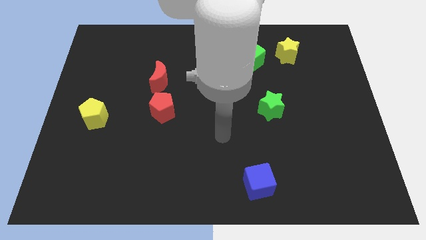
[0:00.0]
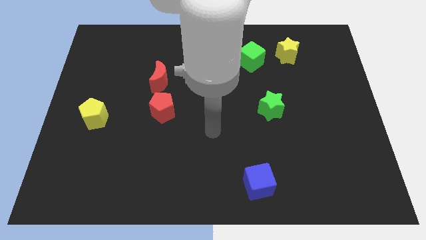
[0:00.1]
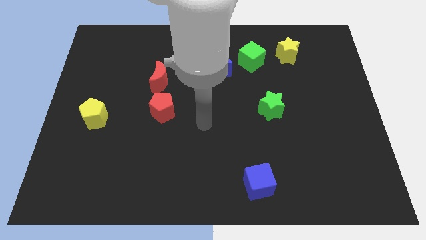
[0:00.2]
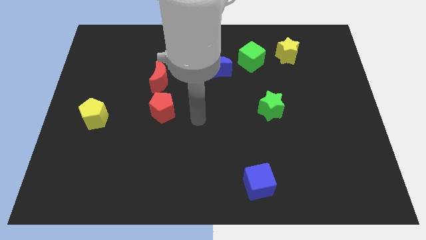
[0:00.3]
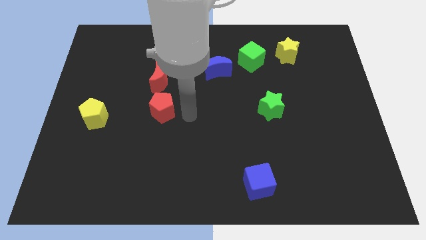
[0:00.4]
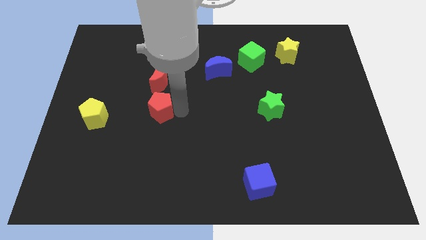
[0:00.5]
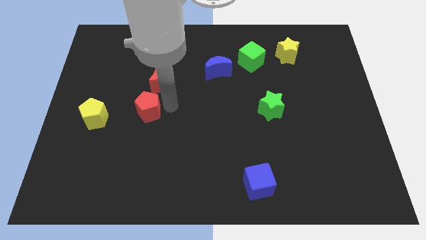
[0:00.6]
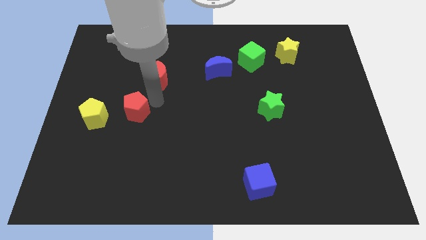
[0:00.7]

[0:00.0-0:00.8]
separate the red moon from the red pentagon

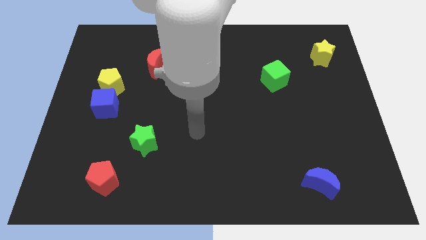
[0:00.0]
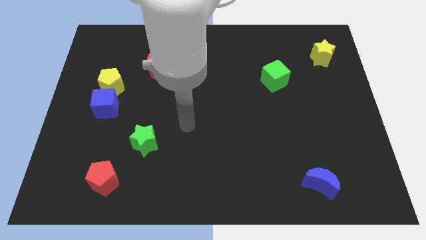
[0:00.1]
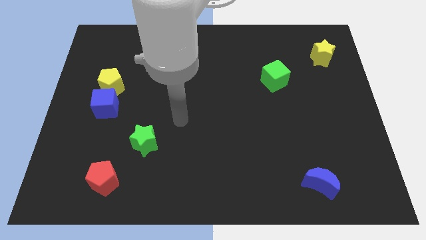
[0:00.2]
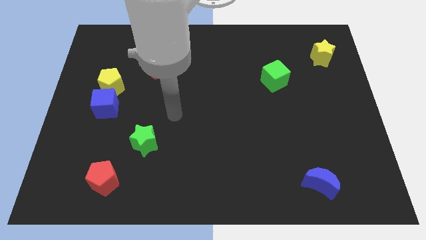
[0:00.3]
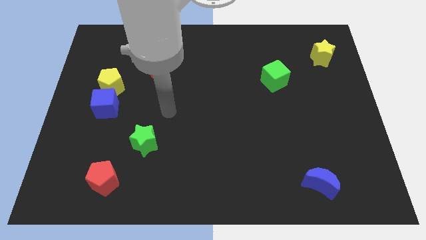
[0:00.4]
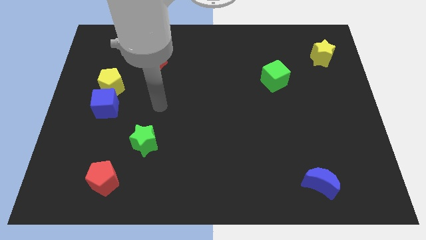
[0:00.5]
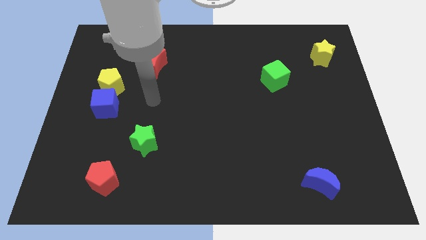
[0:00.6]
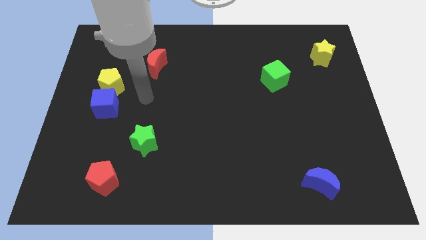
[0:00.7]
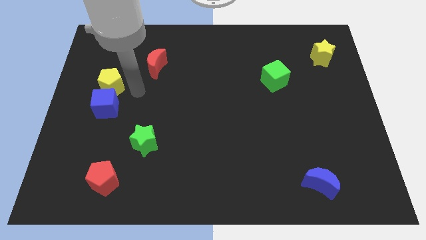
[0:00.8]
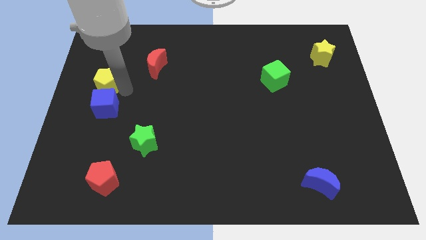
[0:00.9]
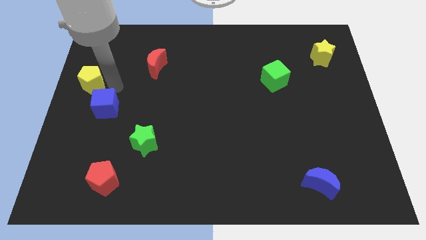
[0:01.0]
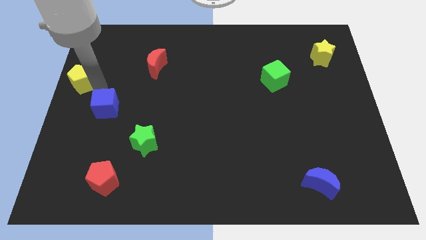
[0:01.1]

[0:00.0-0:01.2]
move the blue cube away from the yellow pentagon

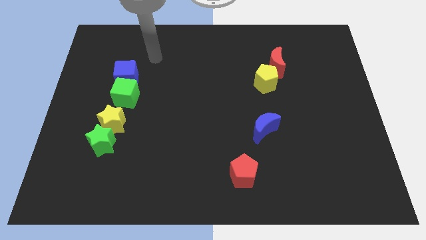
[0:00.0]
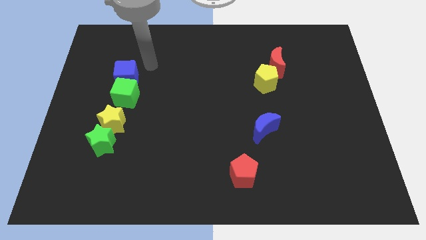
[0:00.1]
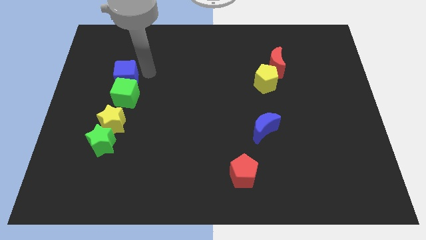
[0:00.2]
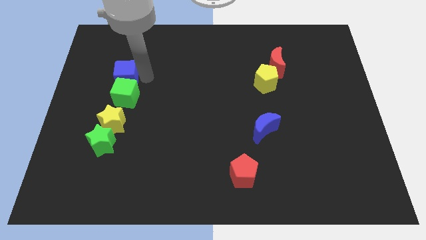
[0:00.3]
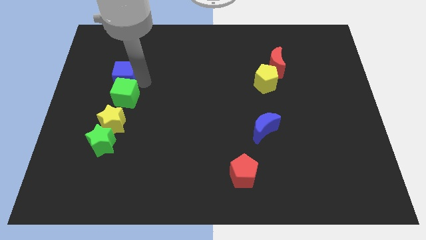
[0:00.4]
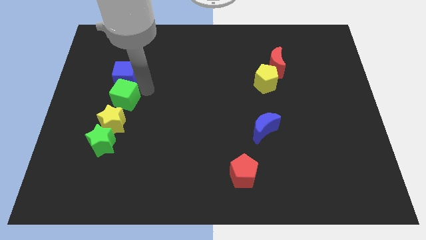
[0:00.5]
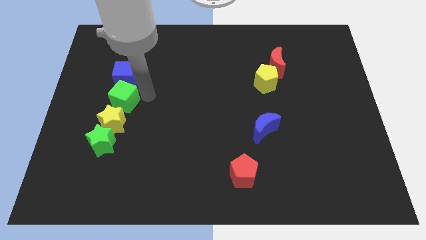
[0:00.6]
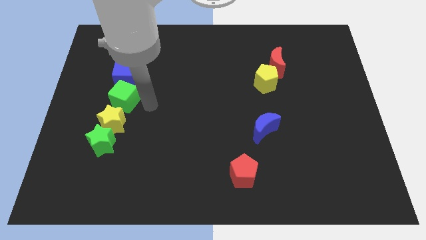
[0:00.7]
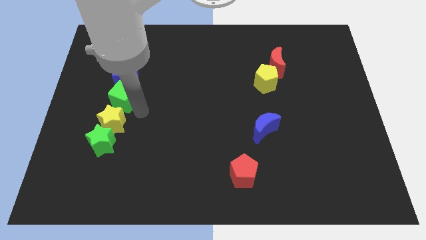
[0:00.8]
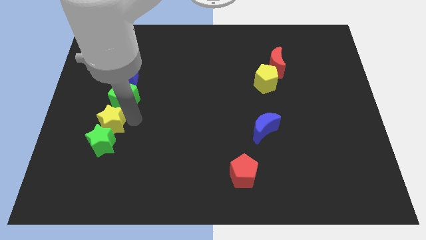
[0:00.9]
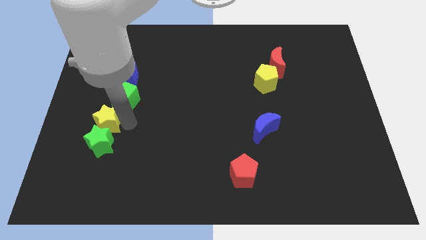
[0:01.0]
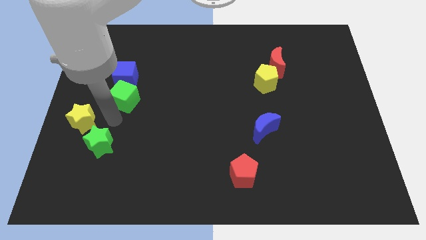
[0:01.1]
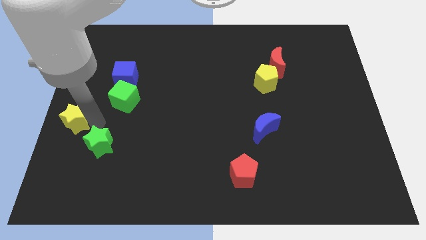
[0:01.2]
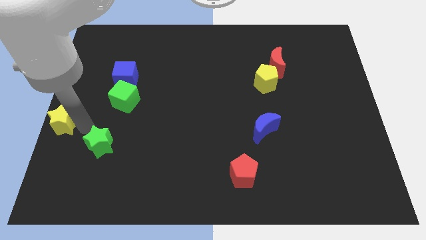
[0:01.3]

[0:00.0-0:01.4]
separate the green star from the yellow star

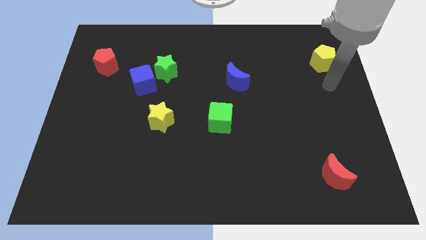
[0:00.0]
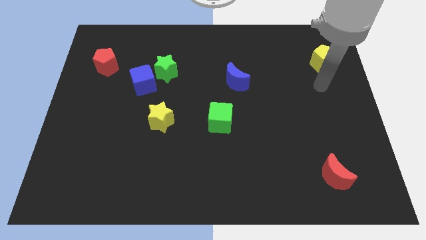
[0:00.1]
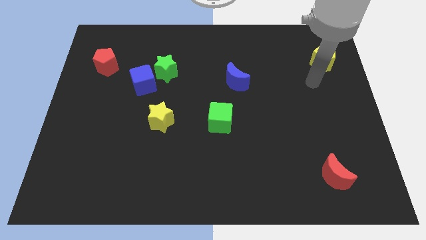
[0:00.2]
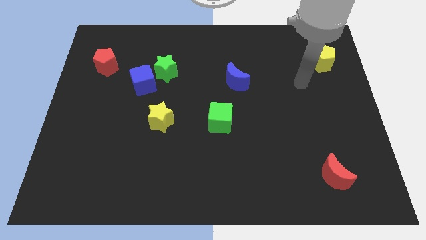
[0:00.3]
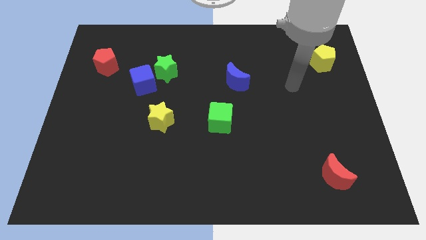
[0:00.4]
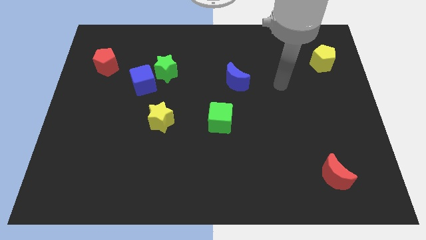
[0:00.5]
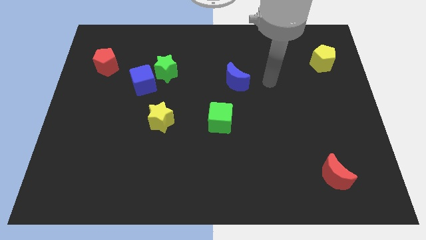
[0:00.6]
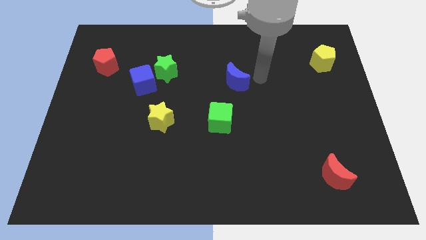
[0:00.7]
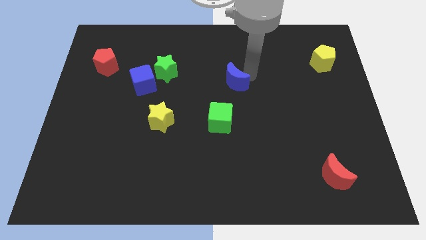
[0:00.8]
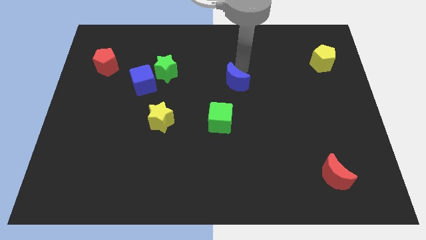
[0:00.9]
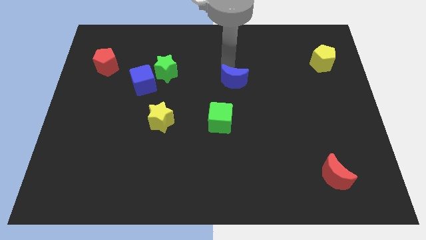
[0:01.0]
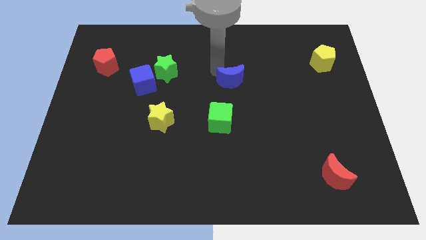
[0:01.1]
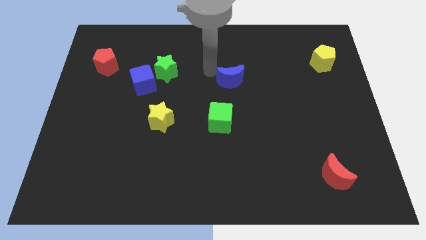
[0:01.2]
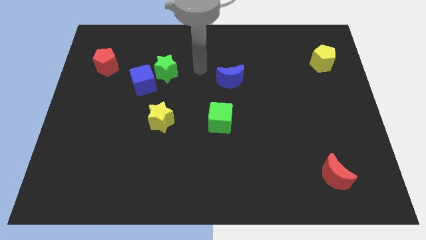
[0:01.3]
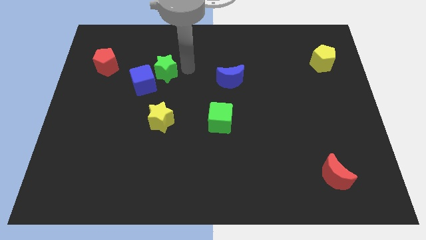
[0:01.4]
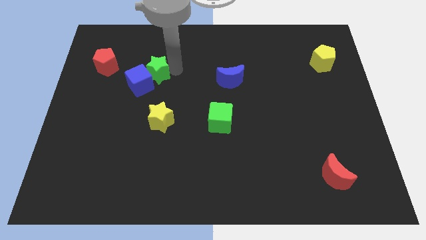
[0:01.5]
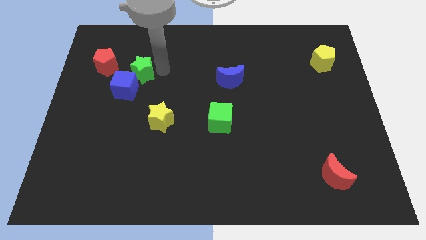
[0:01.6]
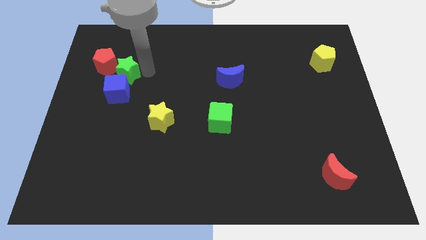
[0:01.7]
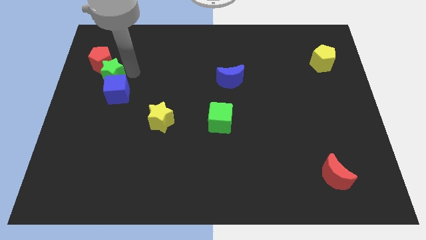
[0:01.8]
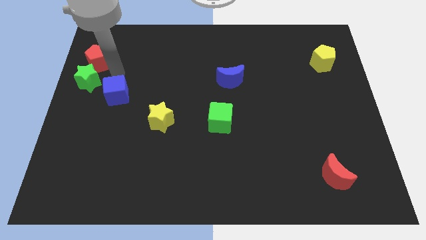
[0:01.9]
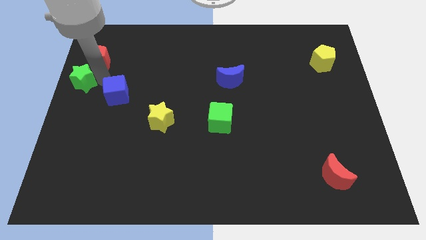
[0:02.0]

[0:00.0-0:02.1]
separate the blue cube from the green star

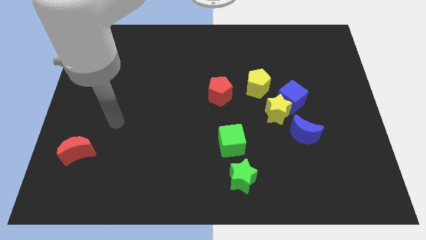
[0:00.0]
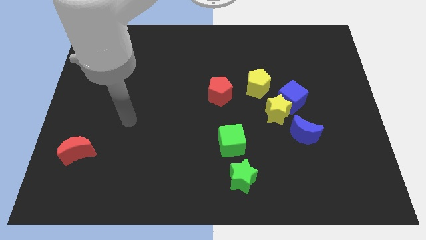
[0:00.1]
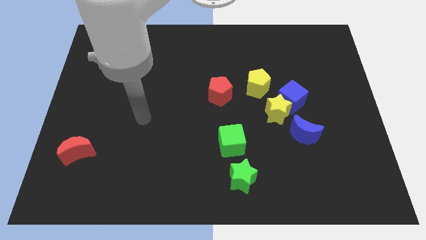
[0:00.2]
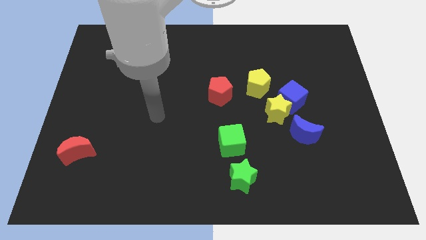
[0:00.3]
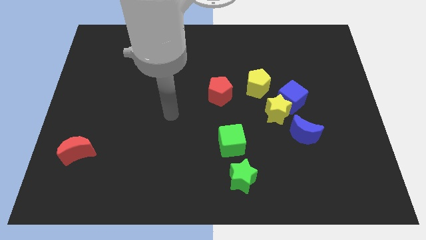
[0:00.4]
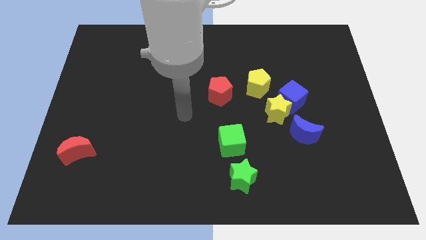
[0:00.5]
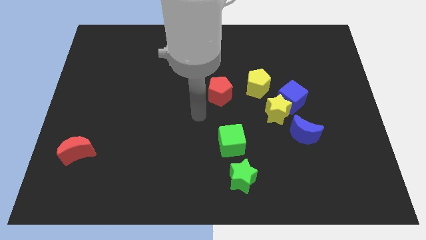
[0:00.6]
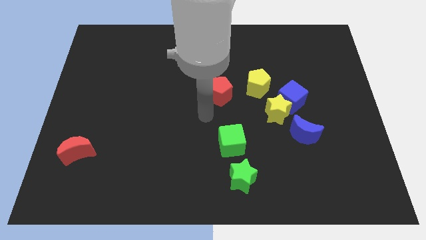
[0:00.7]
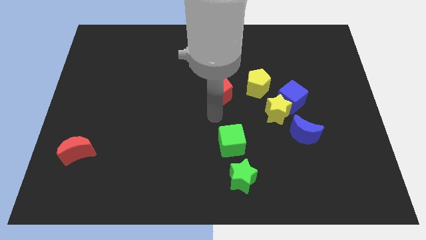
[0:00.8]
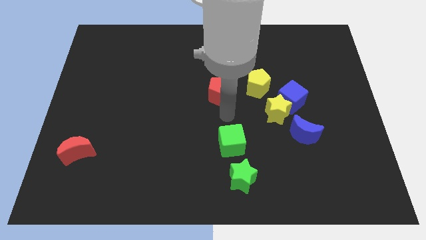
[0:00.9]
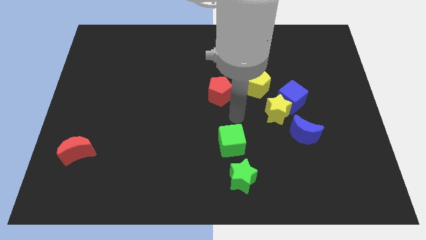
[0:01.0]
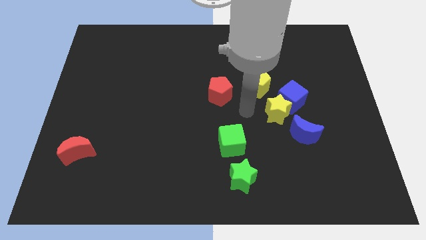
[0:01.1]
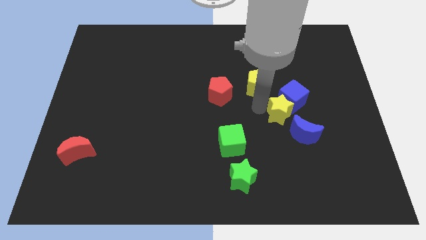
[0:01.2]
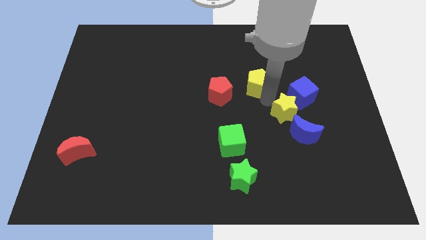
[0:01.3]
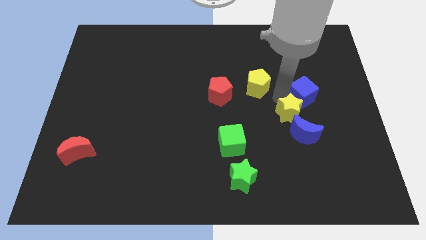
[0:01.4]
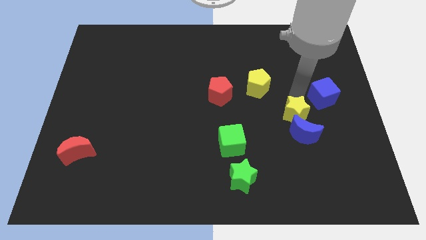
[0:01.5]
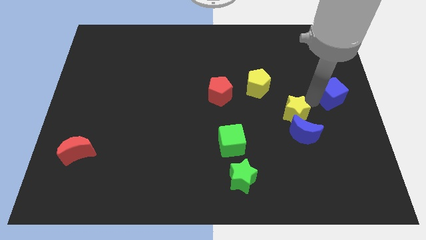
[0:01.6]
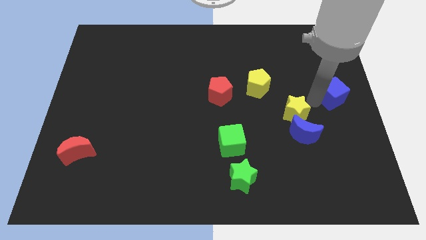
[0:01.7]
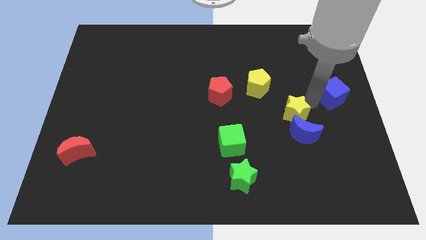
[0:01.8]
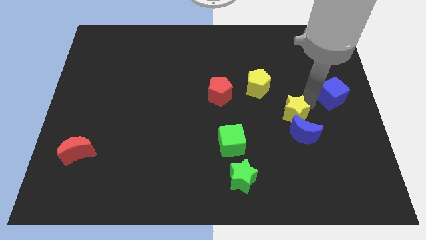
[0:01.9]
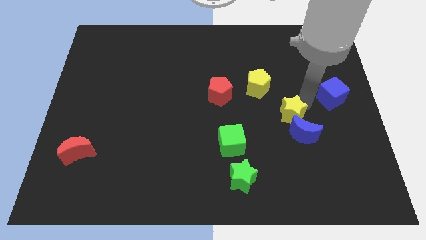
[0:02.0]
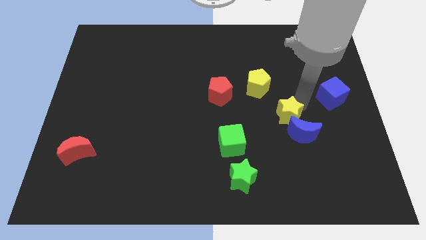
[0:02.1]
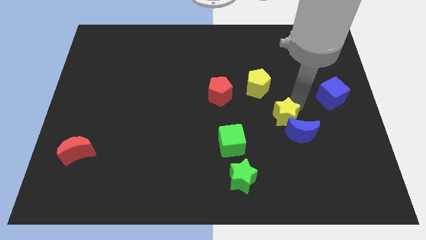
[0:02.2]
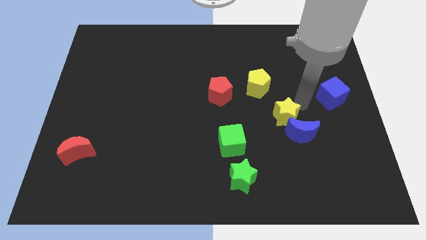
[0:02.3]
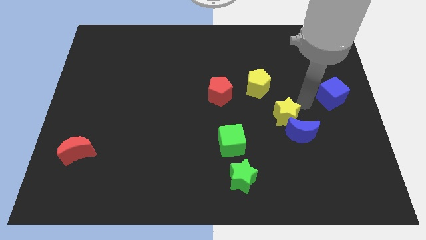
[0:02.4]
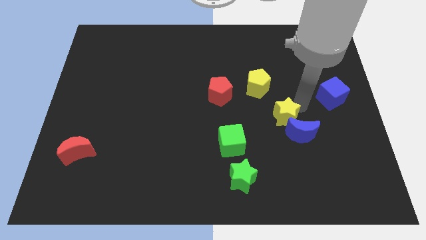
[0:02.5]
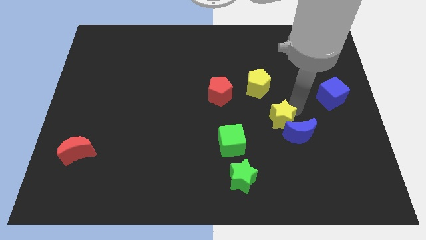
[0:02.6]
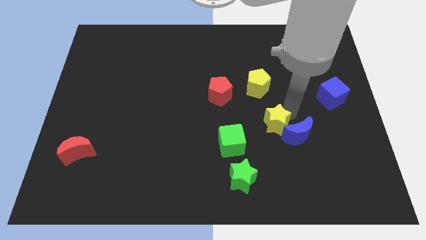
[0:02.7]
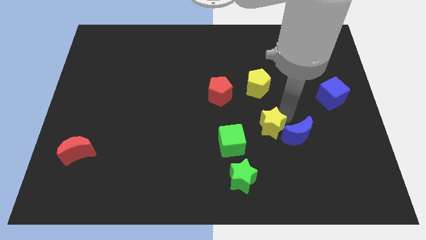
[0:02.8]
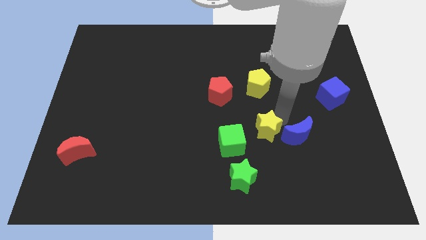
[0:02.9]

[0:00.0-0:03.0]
pull the yellow star apart from the group

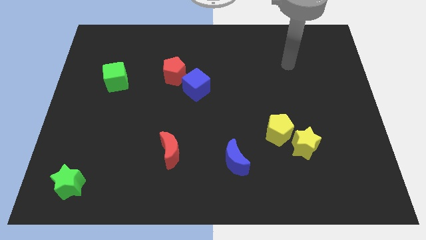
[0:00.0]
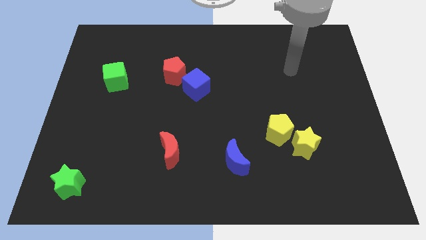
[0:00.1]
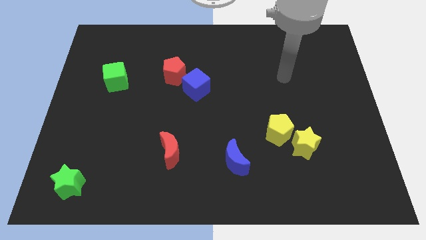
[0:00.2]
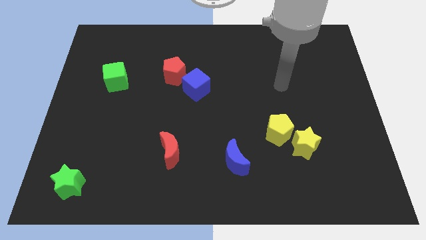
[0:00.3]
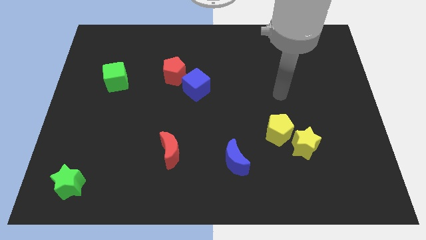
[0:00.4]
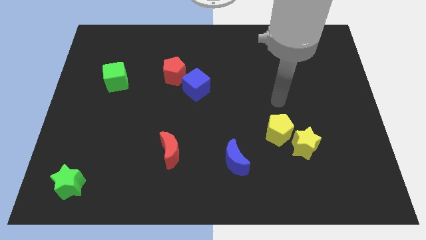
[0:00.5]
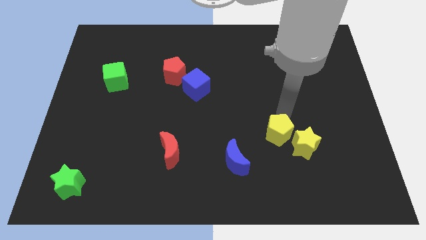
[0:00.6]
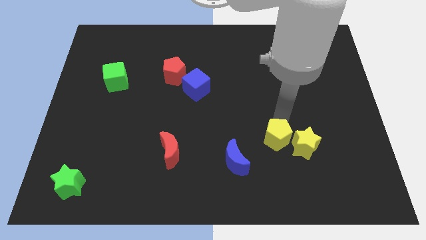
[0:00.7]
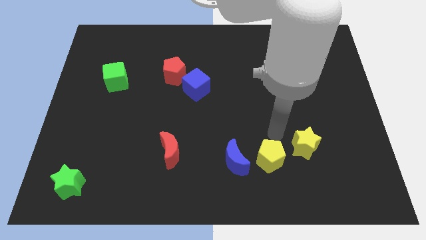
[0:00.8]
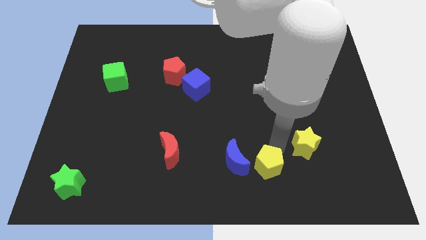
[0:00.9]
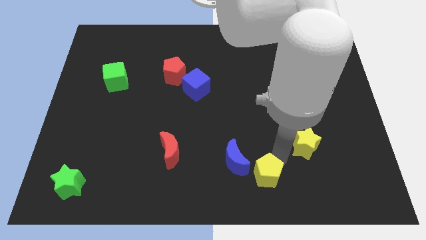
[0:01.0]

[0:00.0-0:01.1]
pull the yellow star apart from the yellow pentagon
